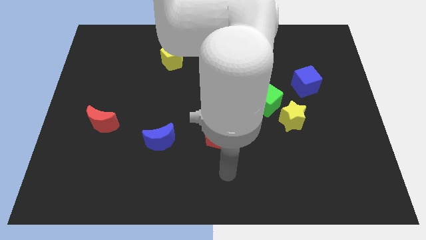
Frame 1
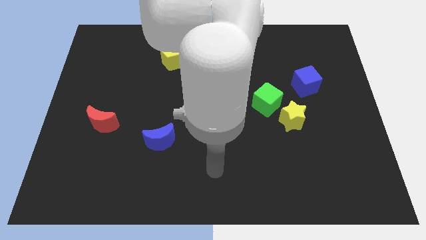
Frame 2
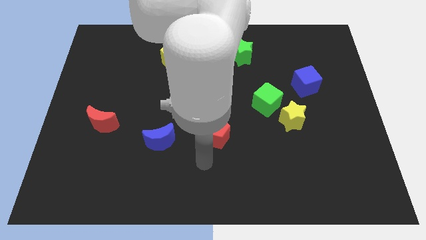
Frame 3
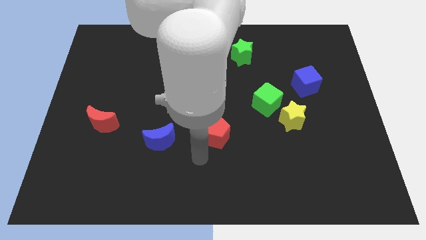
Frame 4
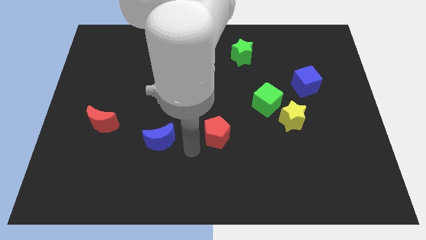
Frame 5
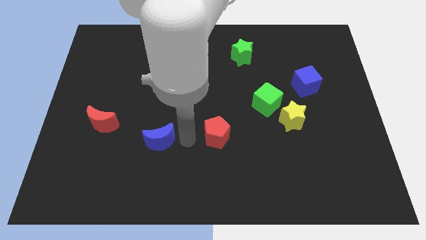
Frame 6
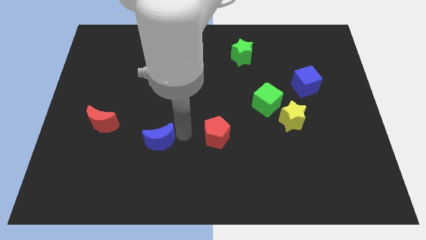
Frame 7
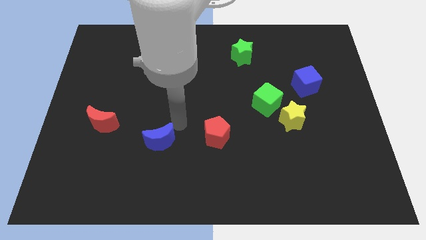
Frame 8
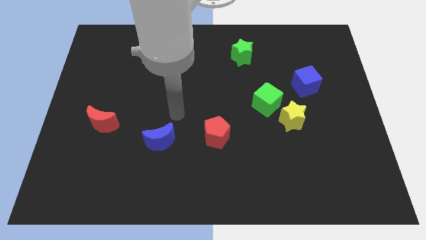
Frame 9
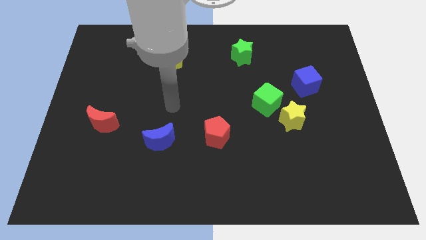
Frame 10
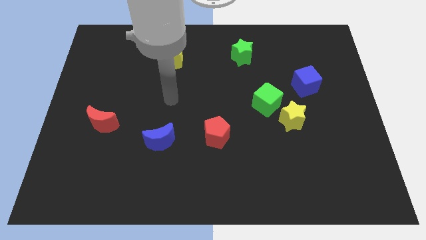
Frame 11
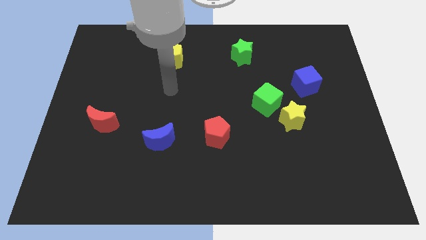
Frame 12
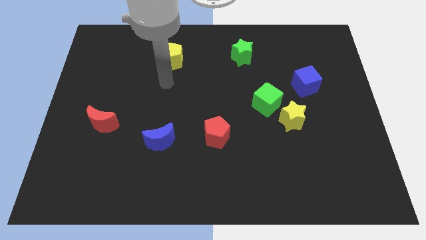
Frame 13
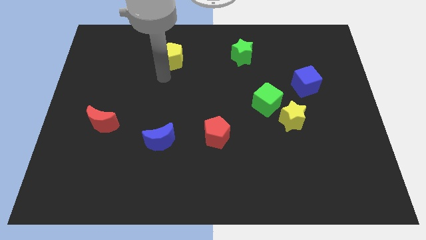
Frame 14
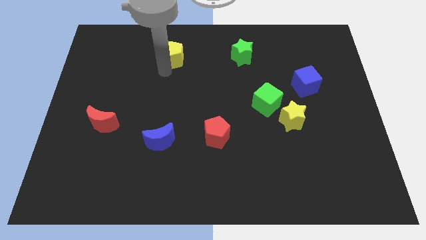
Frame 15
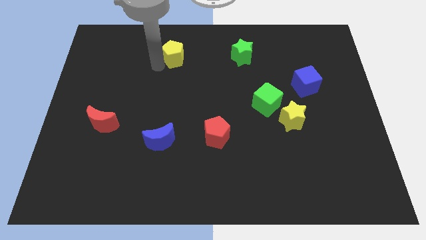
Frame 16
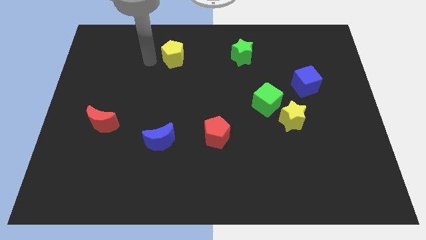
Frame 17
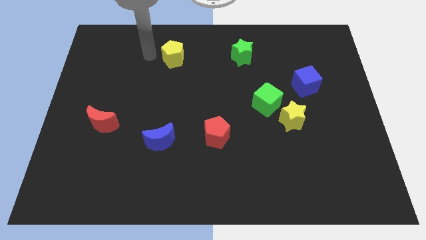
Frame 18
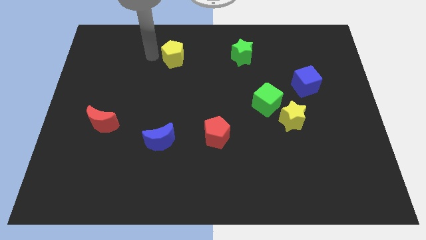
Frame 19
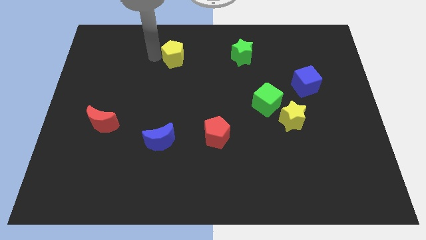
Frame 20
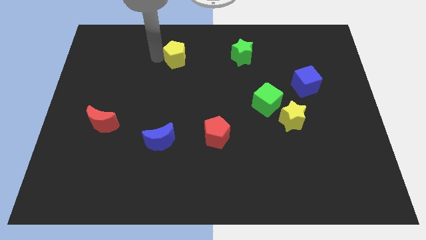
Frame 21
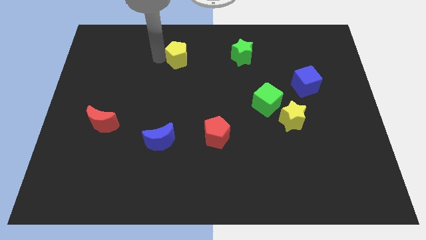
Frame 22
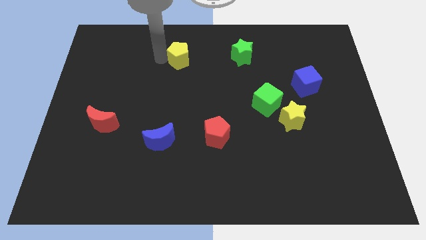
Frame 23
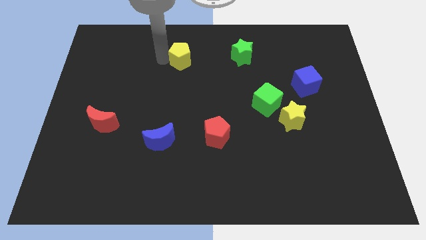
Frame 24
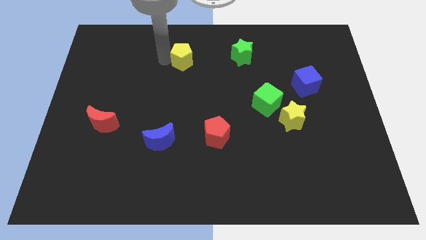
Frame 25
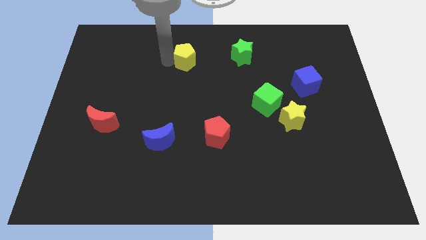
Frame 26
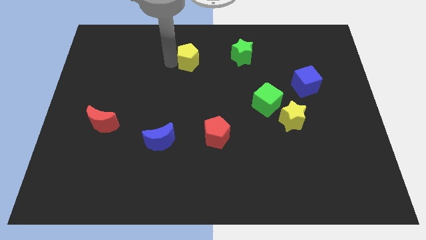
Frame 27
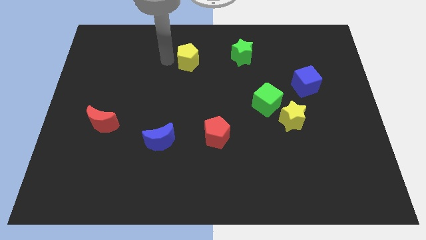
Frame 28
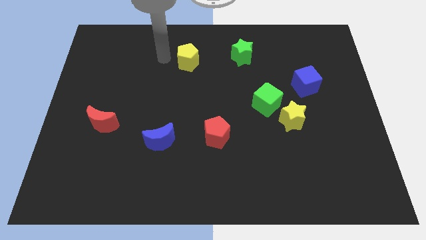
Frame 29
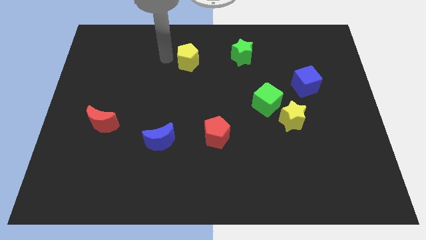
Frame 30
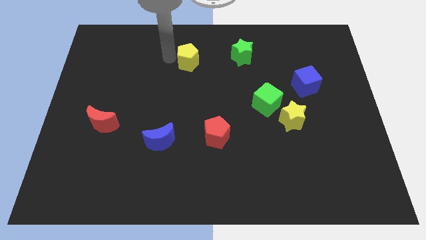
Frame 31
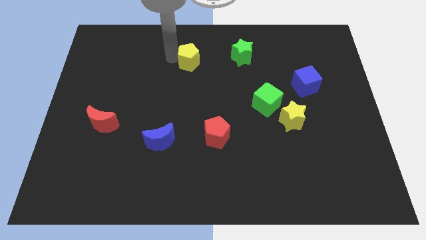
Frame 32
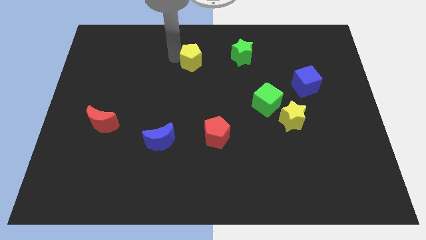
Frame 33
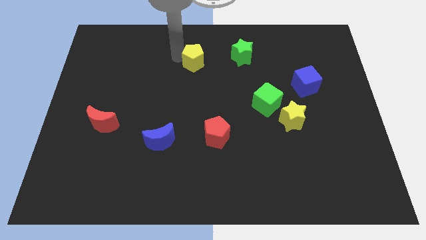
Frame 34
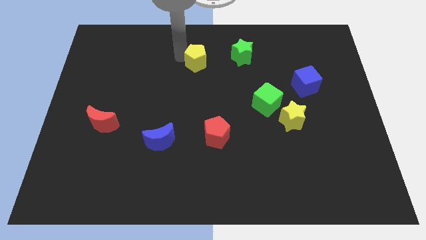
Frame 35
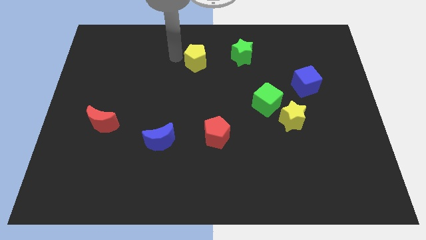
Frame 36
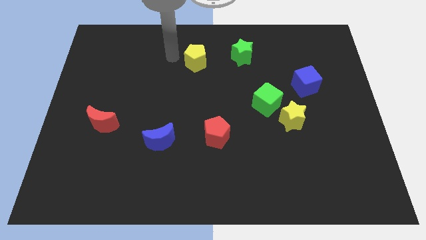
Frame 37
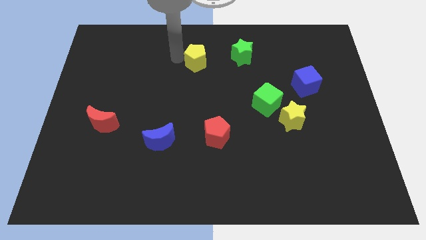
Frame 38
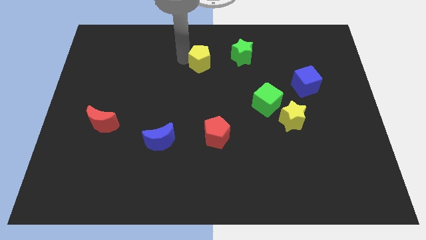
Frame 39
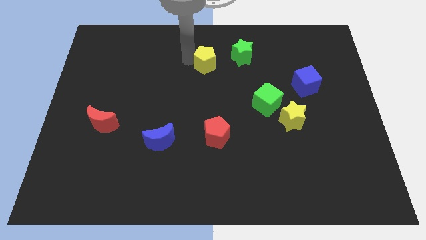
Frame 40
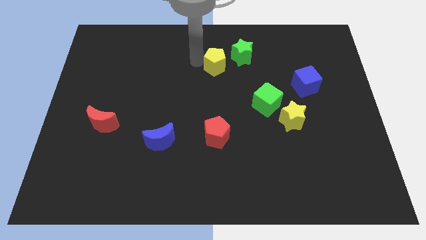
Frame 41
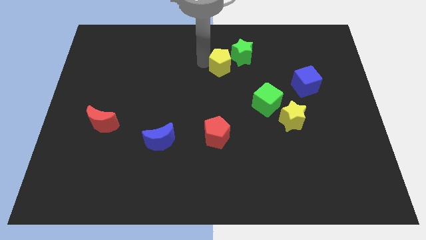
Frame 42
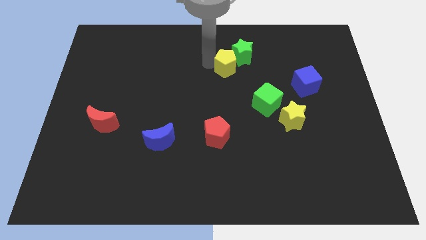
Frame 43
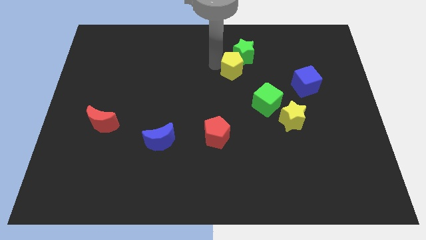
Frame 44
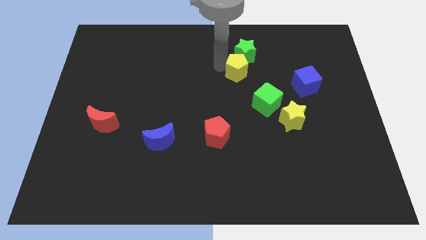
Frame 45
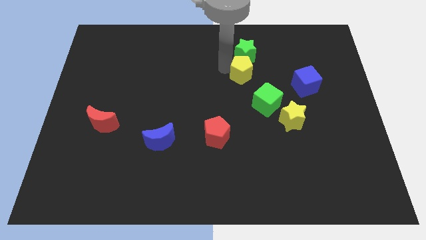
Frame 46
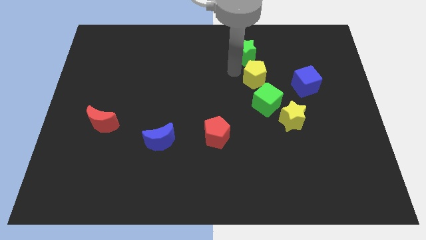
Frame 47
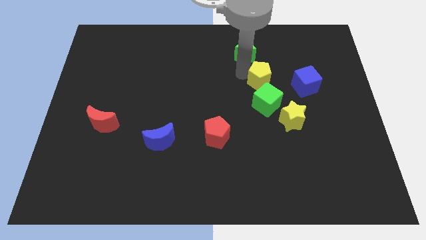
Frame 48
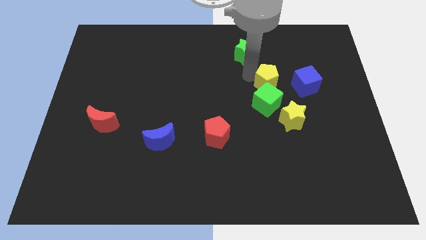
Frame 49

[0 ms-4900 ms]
move the yellow pentagon diagonally up and to the right of the green cube

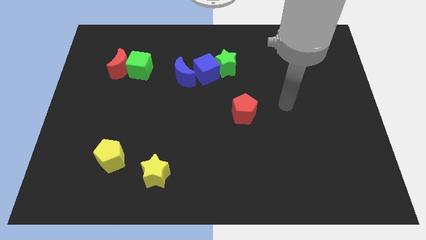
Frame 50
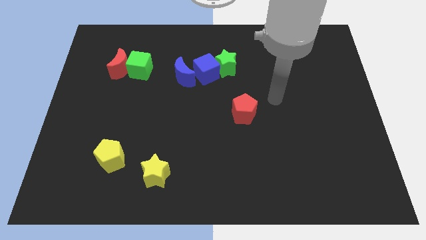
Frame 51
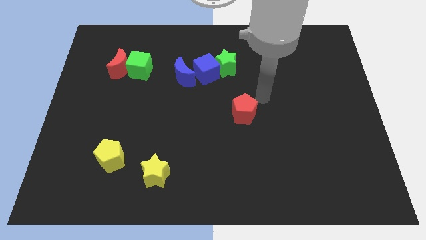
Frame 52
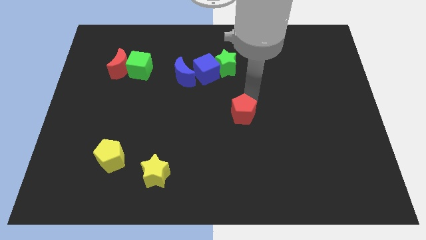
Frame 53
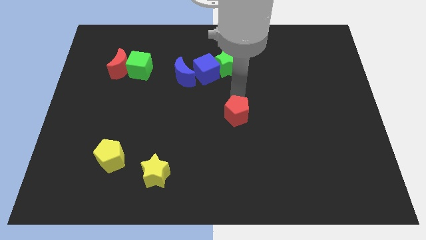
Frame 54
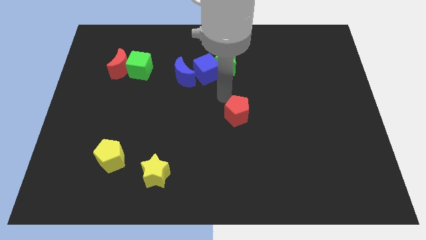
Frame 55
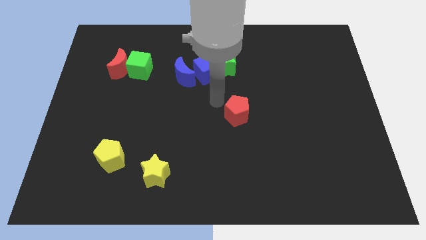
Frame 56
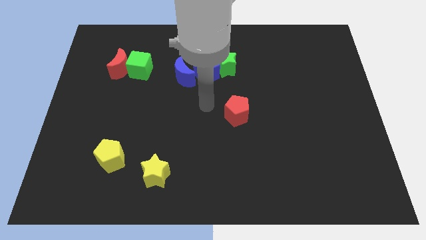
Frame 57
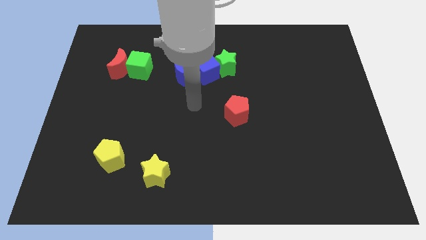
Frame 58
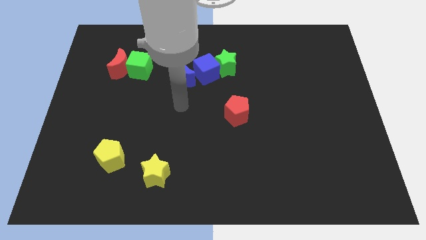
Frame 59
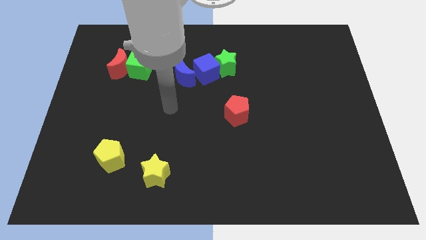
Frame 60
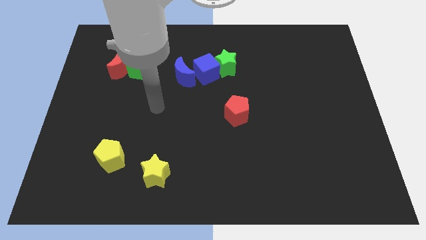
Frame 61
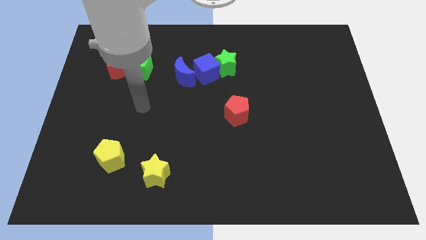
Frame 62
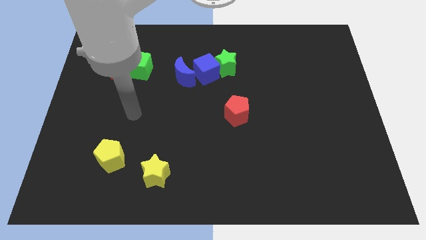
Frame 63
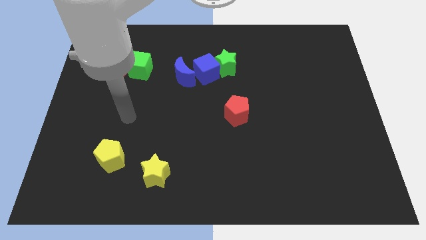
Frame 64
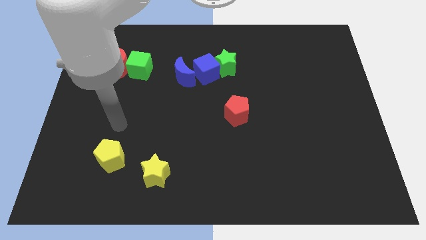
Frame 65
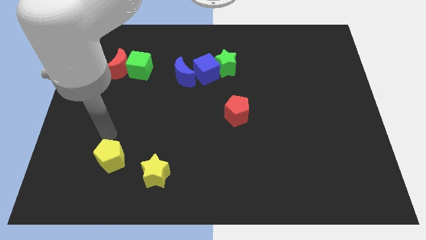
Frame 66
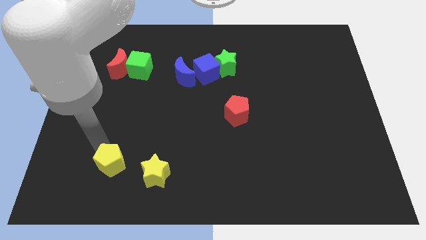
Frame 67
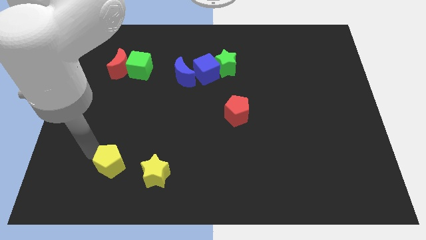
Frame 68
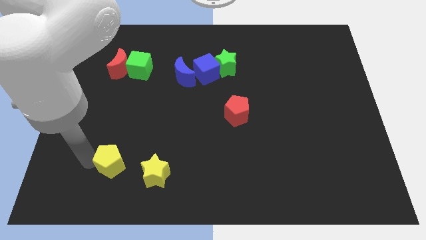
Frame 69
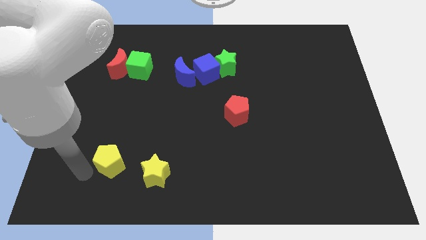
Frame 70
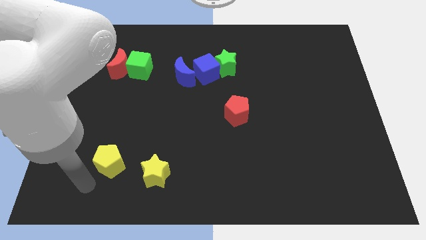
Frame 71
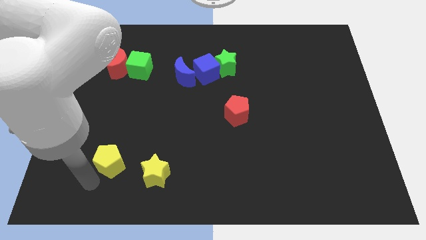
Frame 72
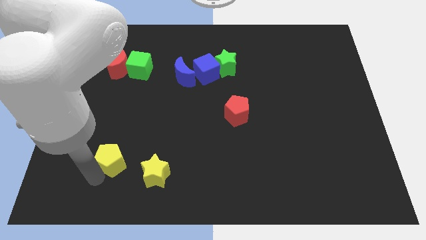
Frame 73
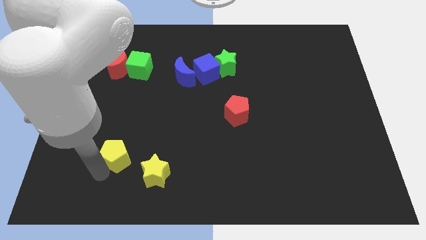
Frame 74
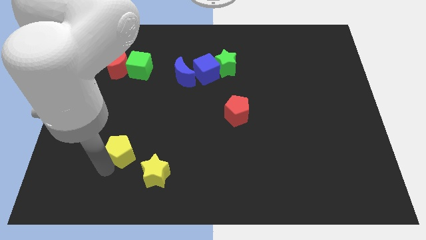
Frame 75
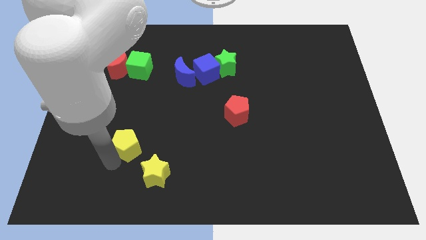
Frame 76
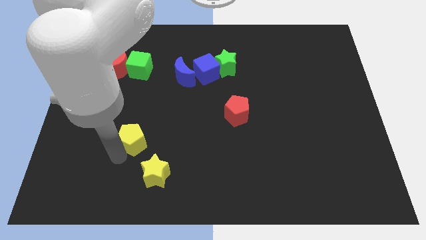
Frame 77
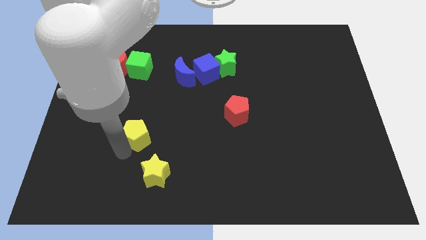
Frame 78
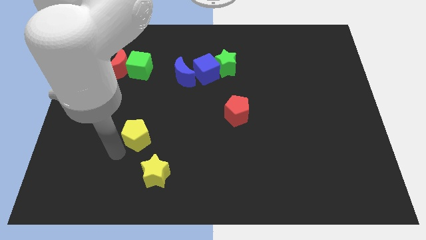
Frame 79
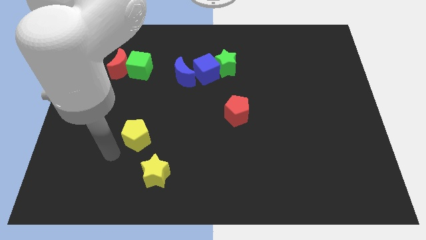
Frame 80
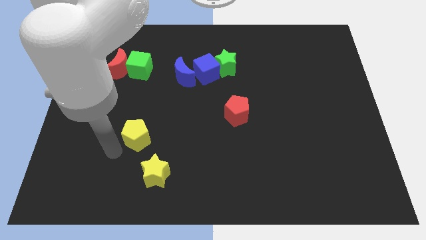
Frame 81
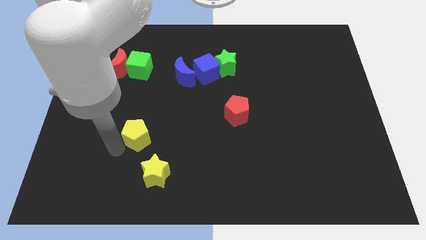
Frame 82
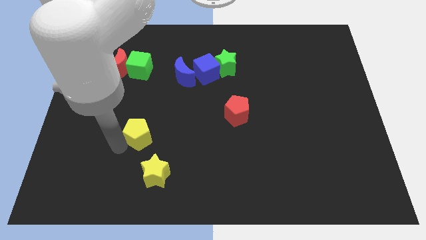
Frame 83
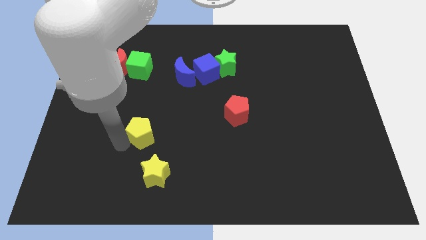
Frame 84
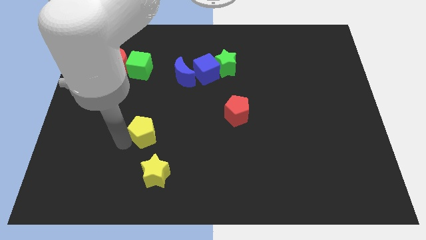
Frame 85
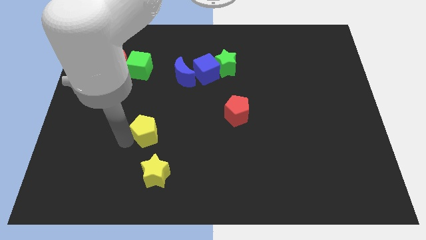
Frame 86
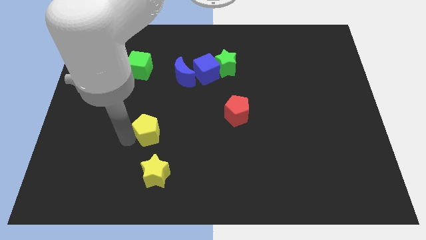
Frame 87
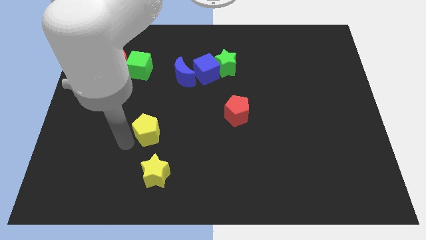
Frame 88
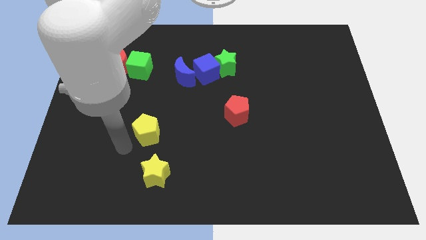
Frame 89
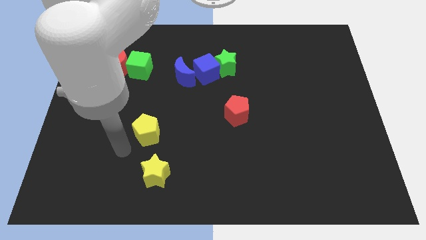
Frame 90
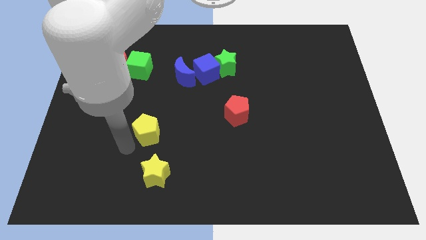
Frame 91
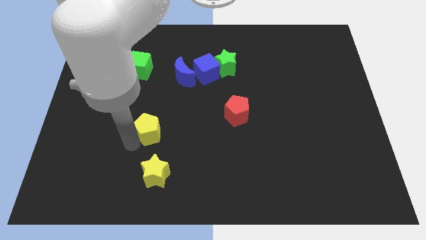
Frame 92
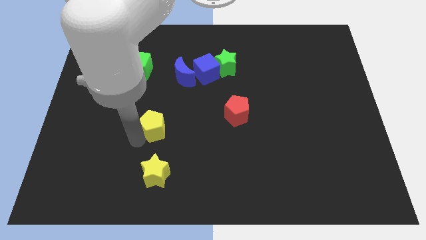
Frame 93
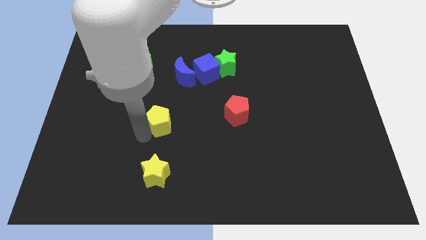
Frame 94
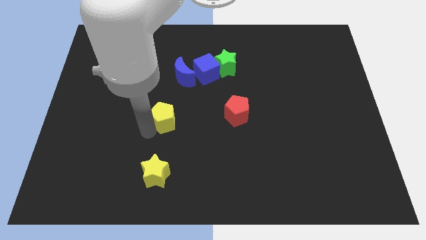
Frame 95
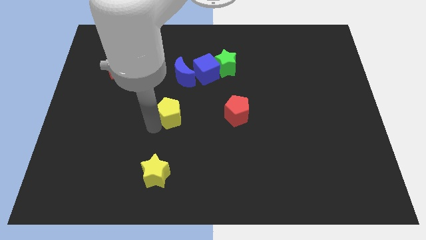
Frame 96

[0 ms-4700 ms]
put the yellow pentagon left of the red pentagon
